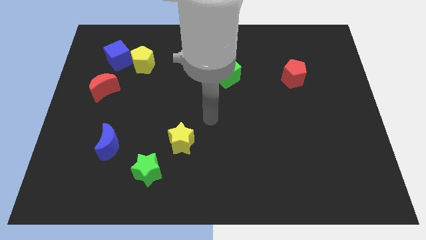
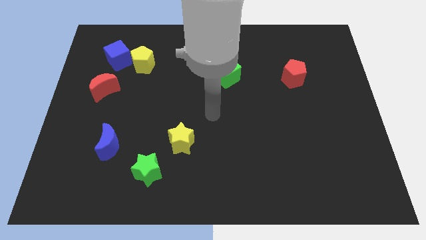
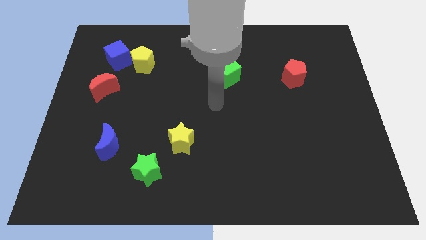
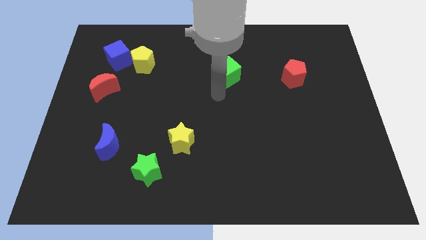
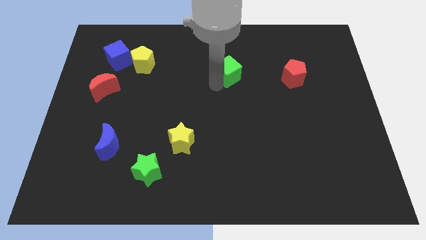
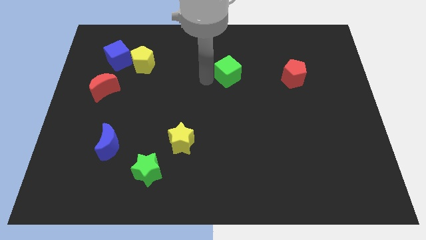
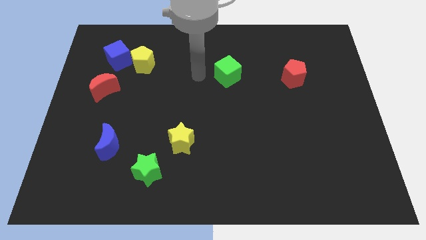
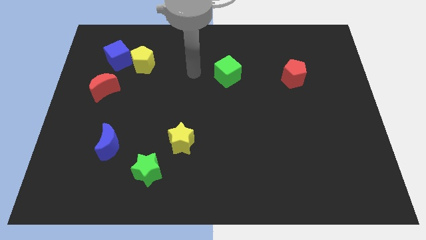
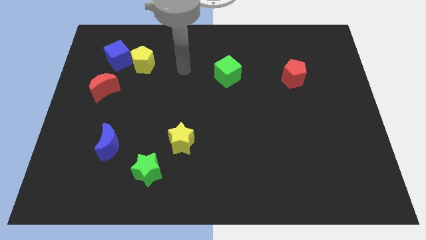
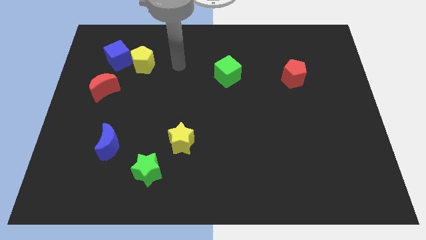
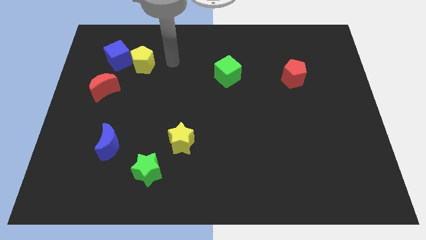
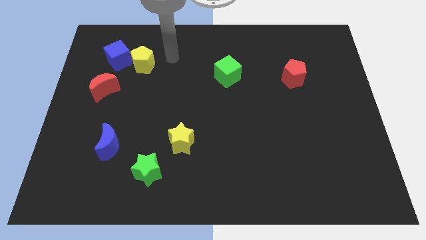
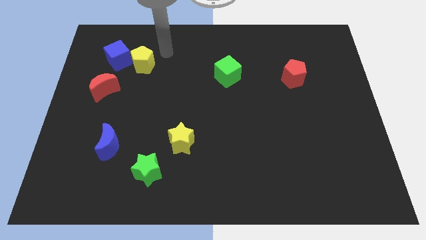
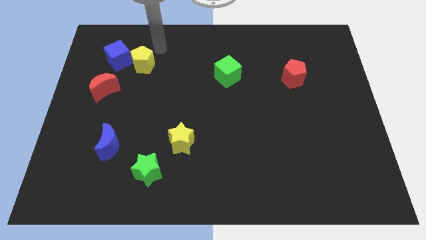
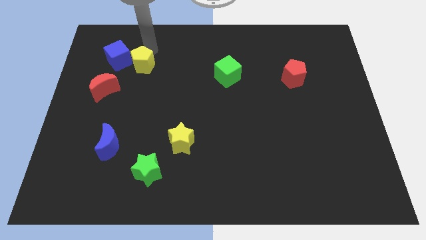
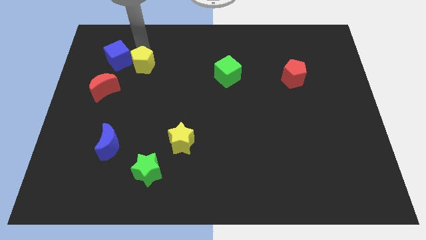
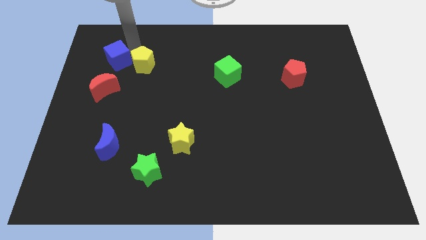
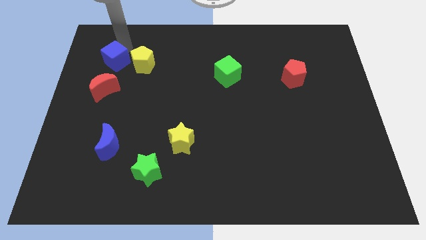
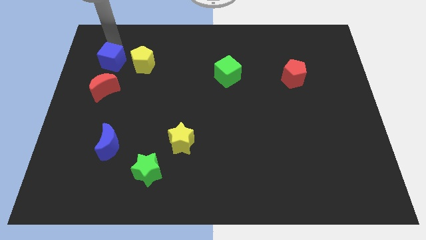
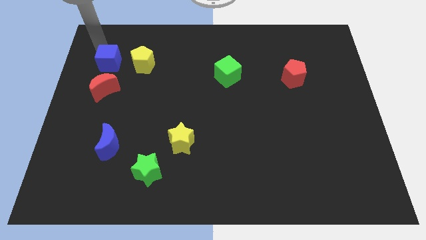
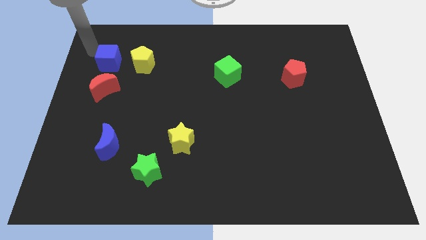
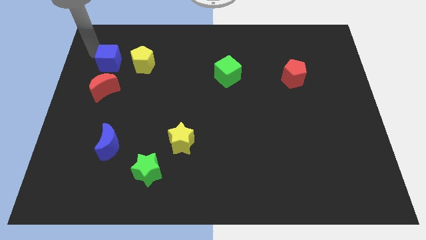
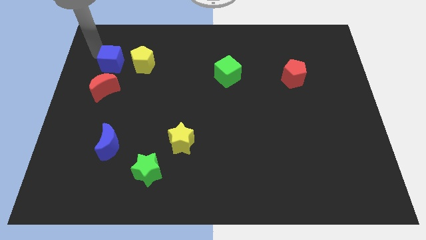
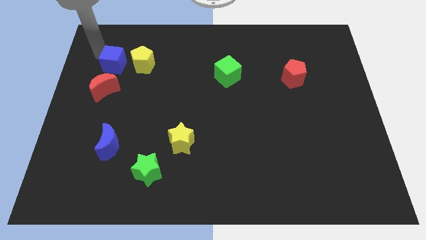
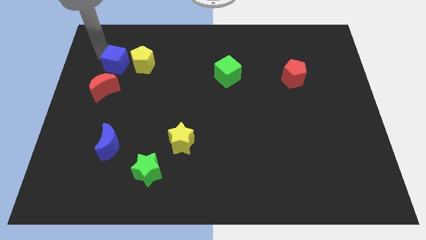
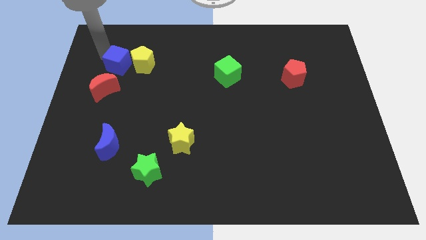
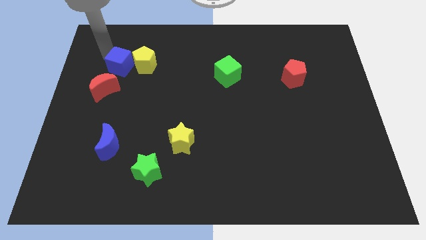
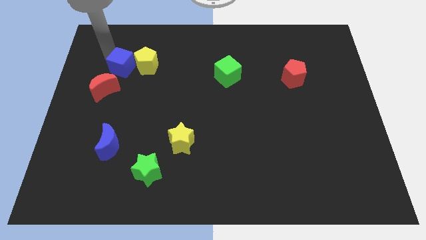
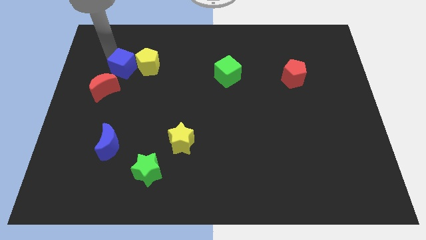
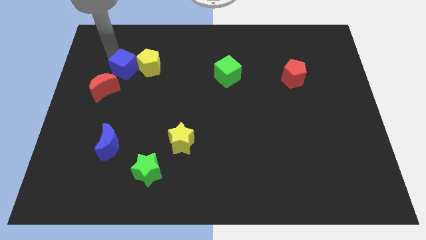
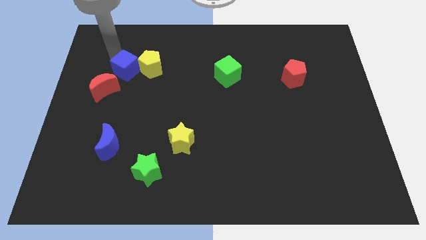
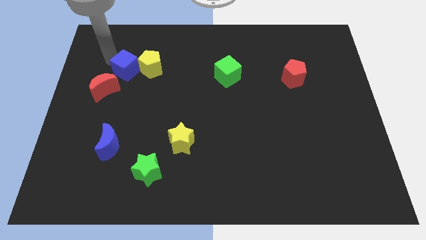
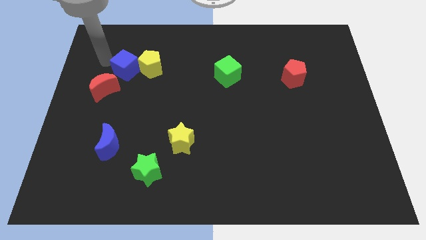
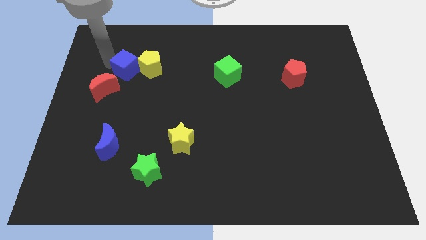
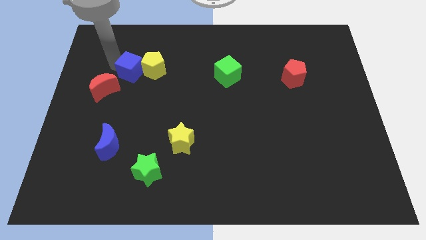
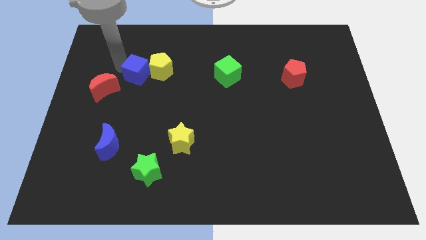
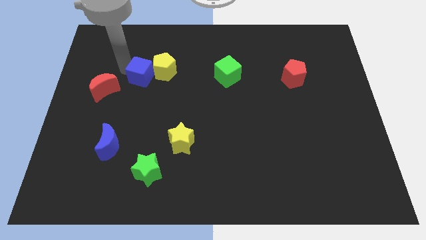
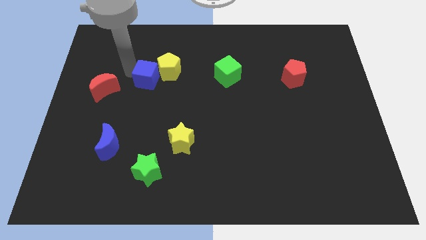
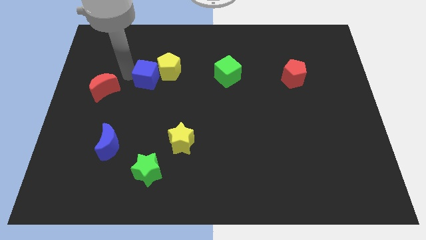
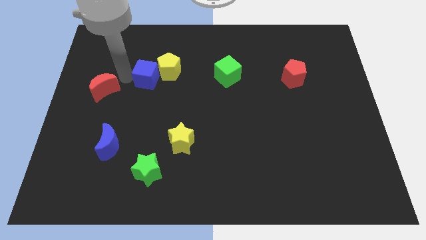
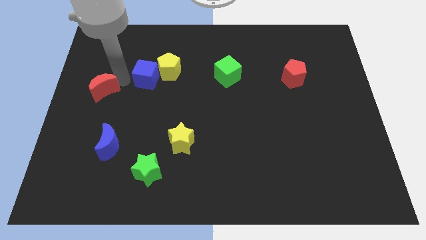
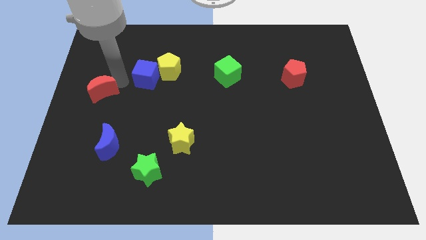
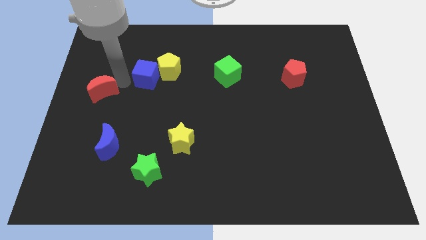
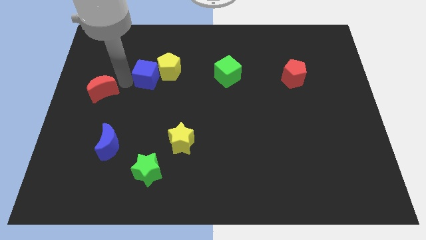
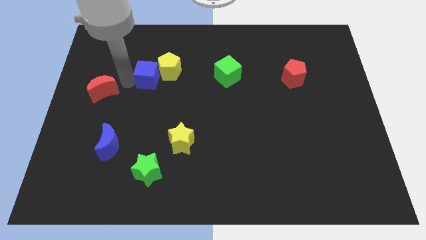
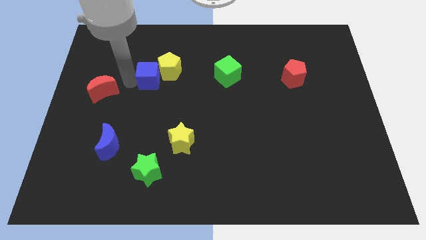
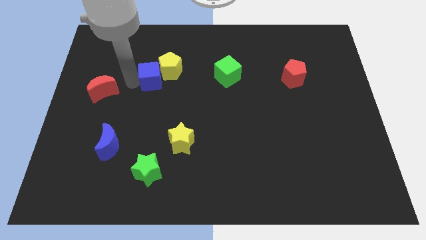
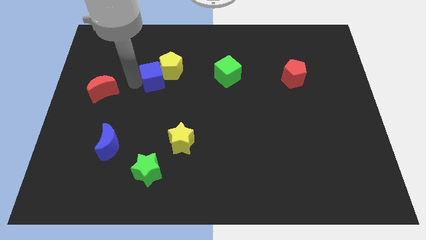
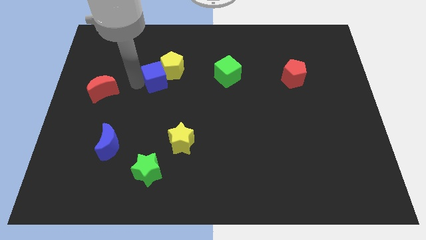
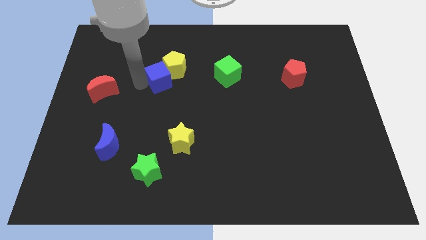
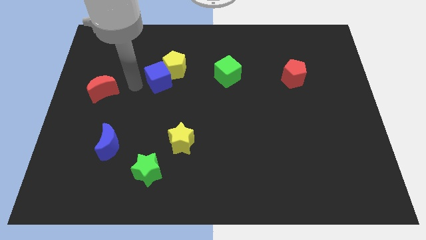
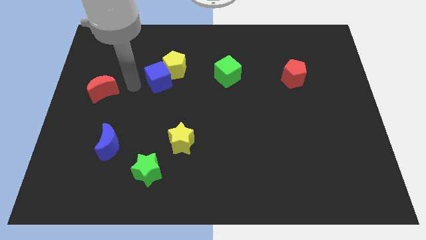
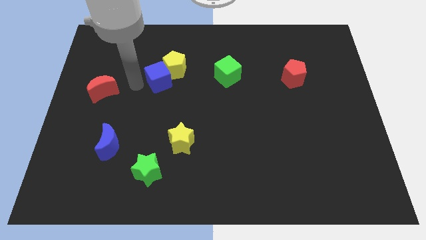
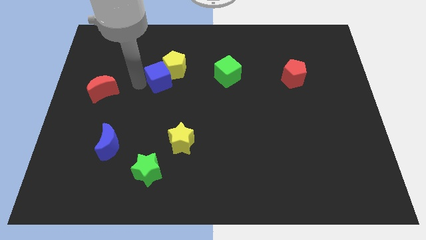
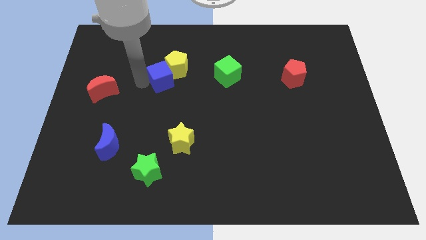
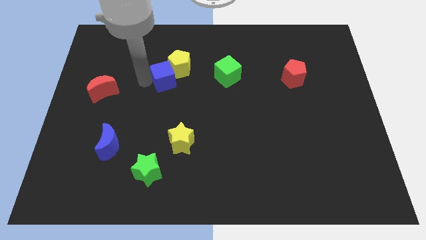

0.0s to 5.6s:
move the blue cube to the left side of the green cube

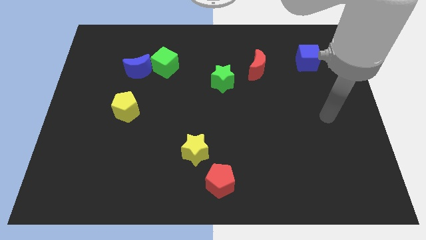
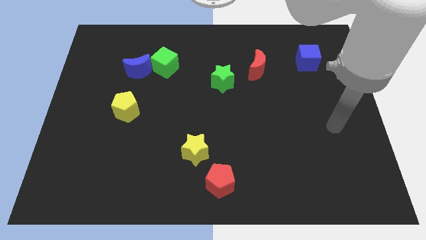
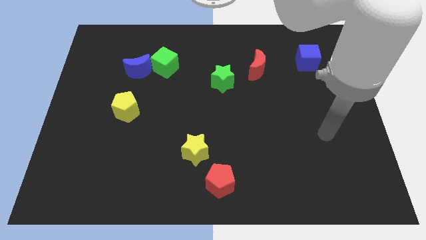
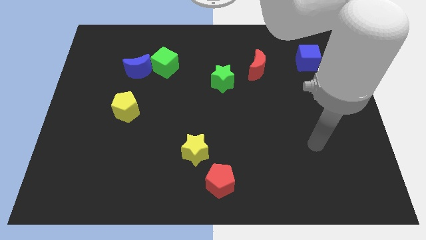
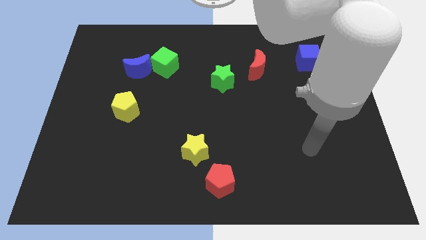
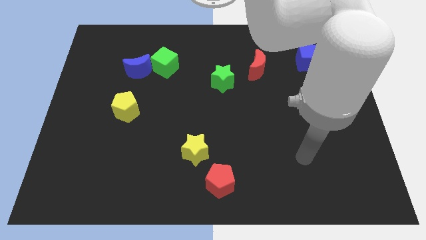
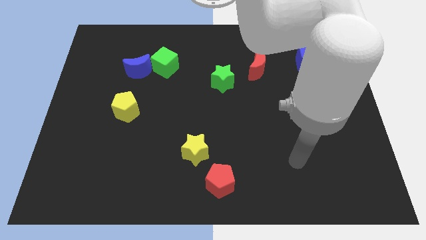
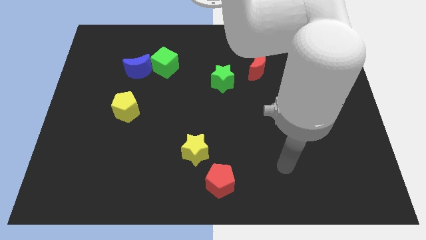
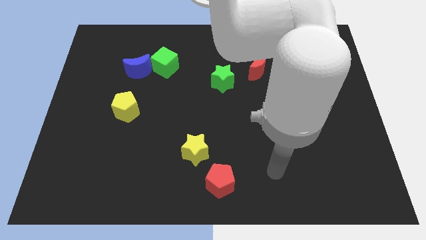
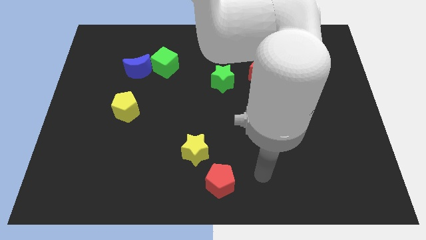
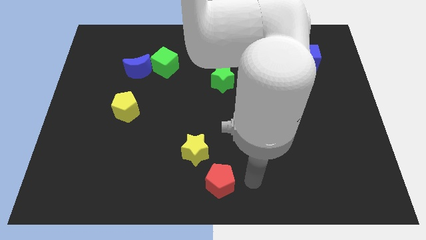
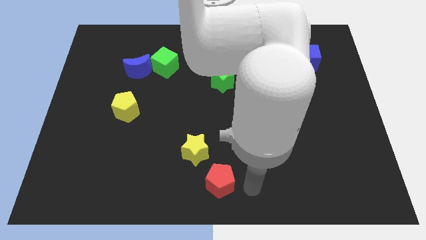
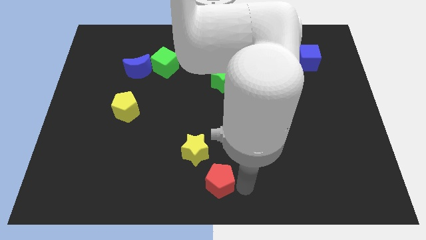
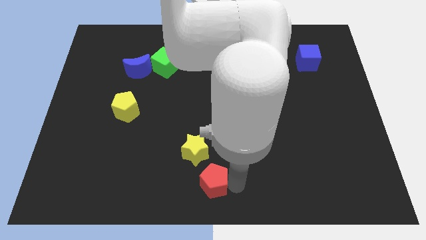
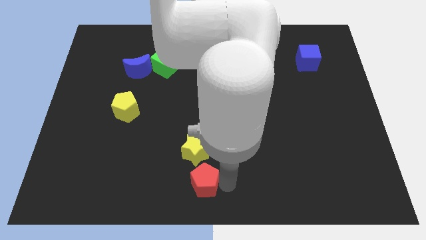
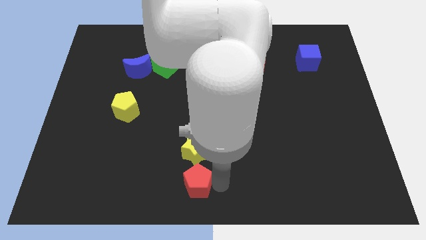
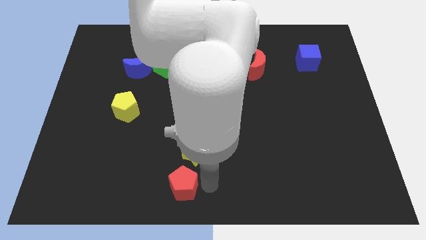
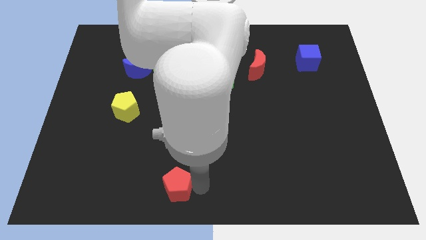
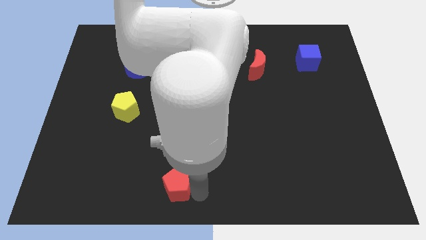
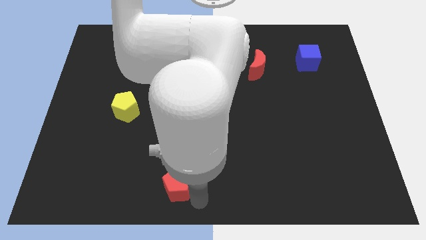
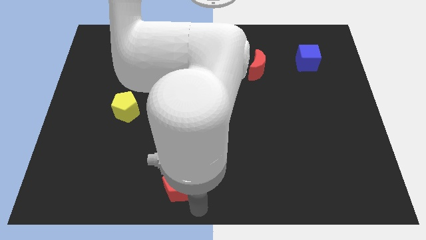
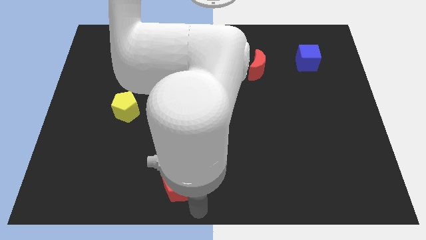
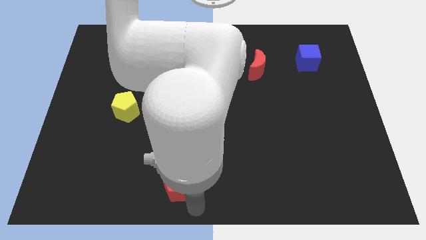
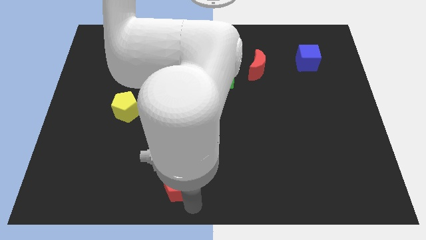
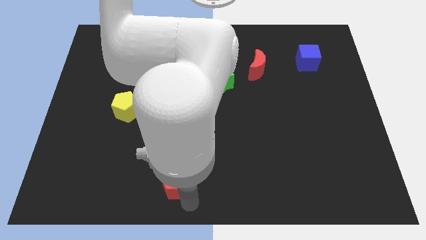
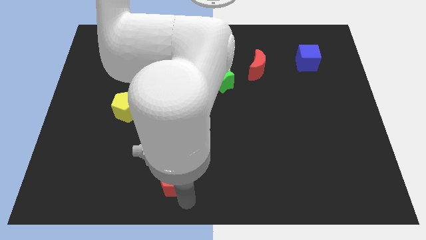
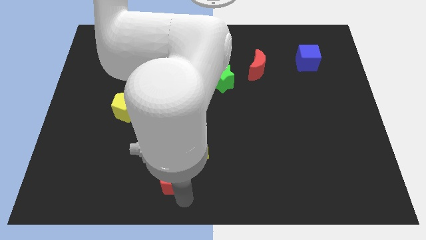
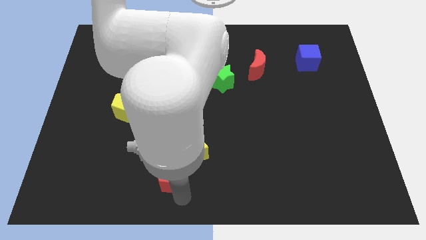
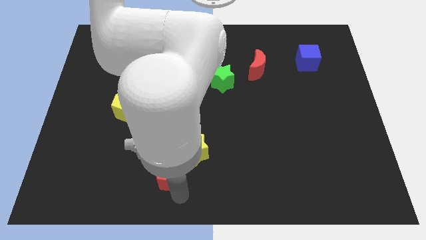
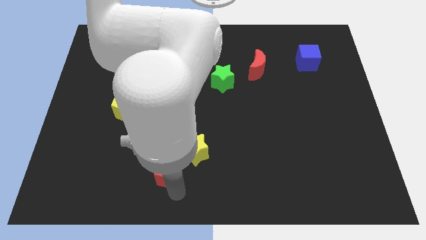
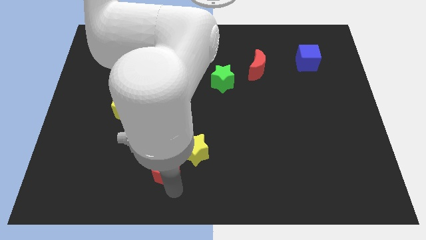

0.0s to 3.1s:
slide the red pentagon to the left side of the yellow star
